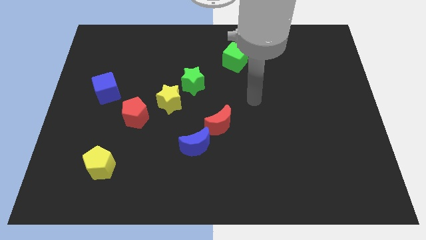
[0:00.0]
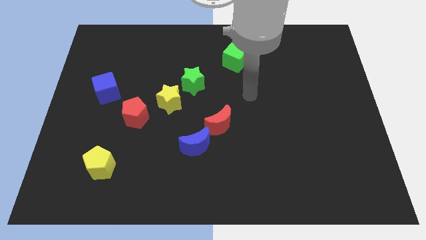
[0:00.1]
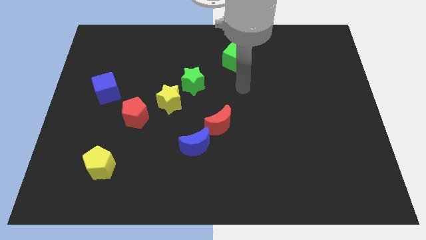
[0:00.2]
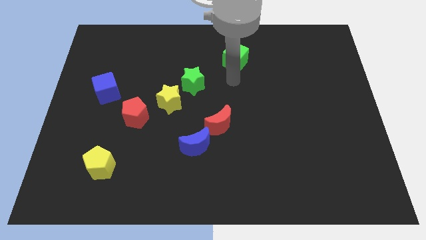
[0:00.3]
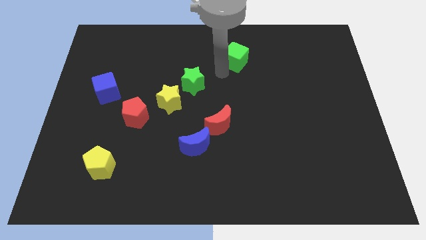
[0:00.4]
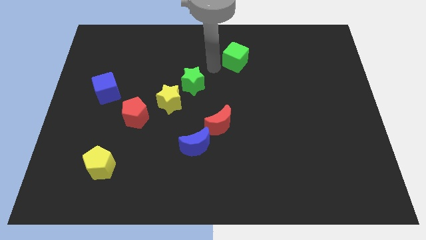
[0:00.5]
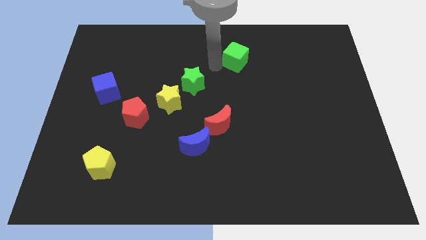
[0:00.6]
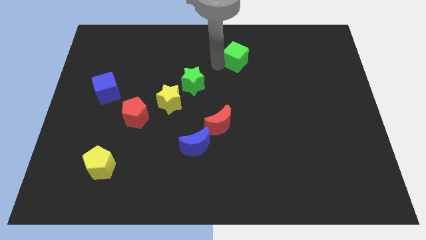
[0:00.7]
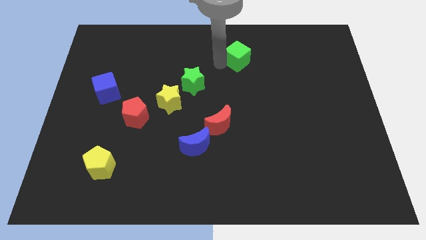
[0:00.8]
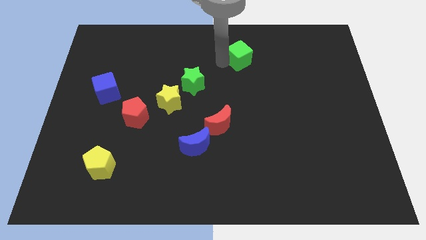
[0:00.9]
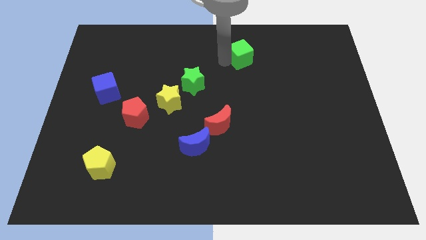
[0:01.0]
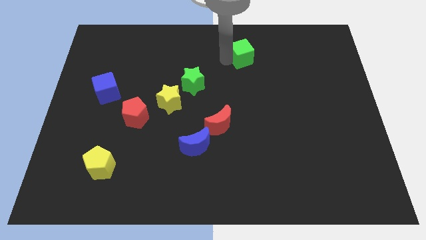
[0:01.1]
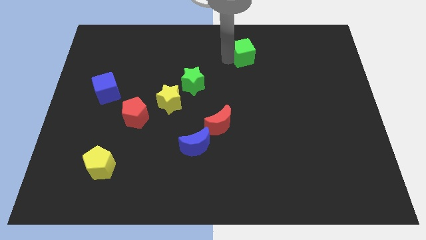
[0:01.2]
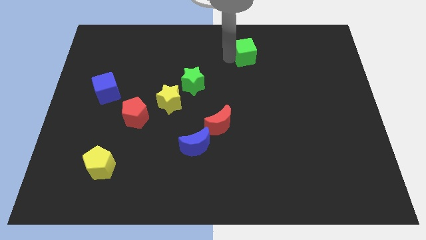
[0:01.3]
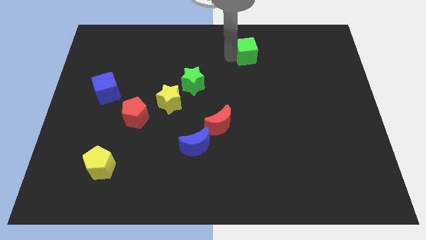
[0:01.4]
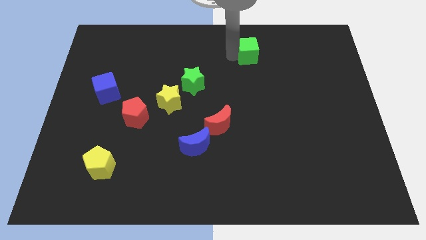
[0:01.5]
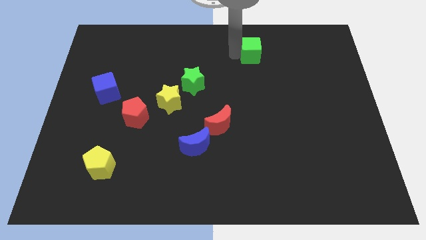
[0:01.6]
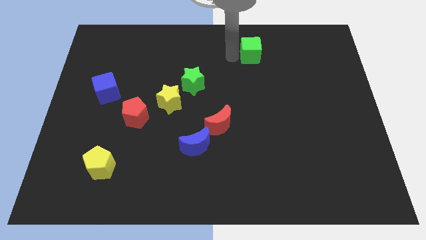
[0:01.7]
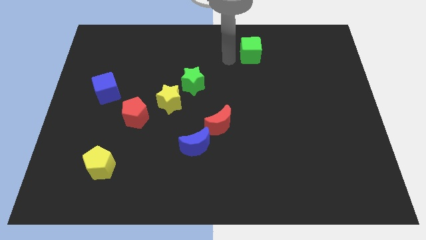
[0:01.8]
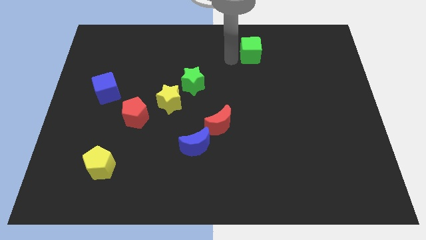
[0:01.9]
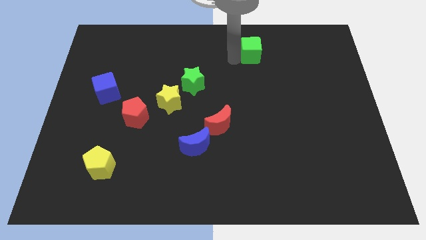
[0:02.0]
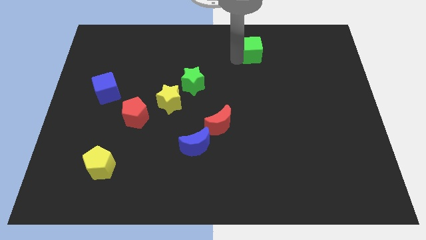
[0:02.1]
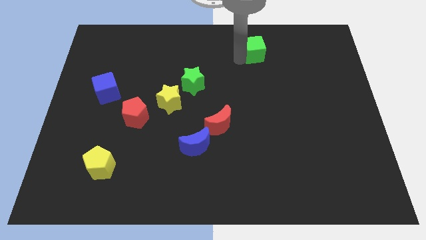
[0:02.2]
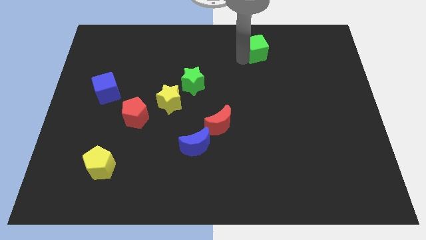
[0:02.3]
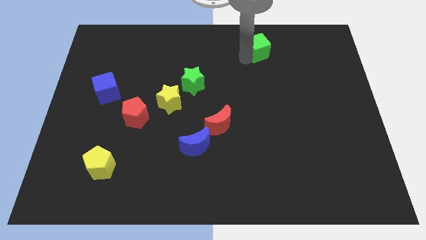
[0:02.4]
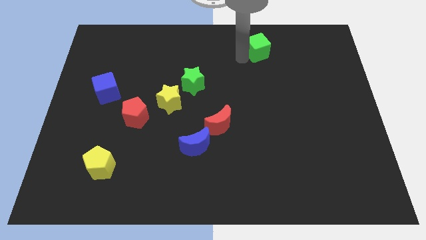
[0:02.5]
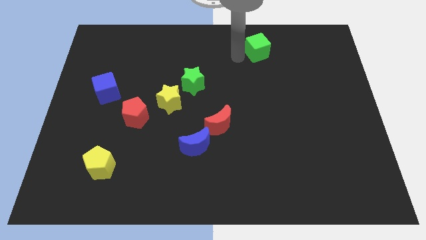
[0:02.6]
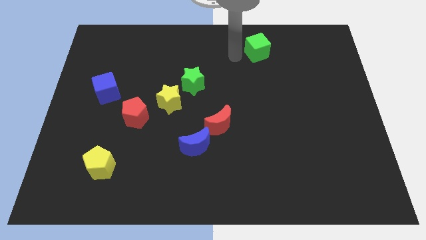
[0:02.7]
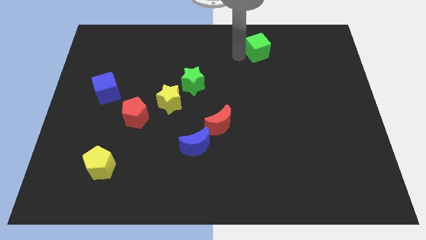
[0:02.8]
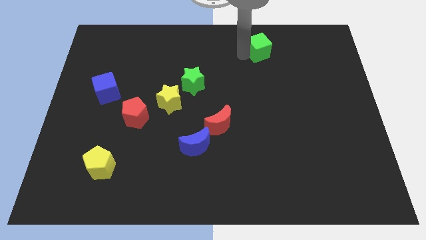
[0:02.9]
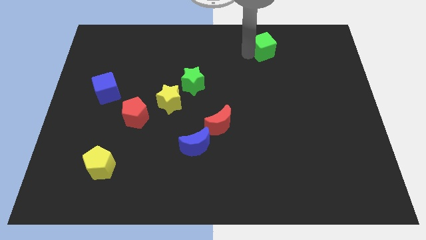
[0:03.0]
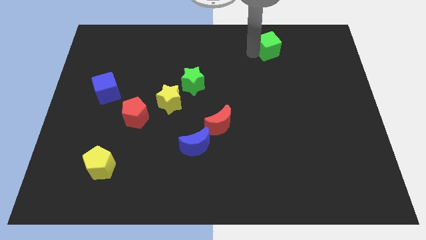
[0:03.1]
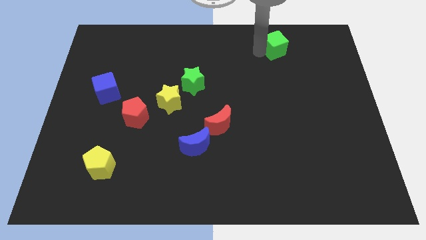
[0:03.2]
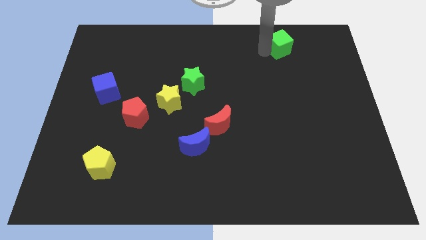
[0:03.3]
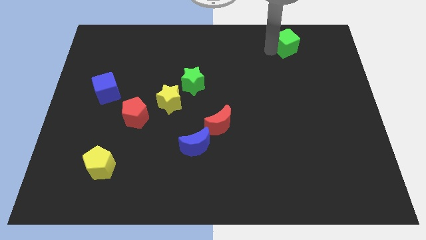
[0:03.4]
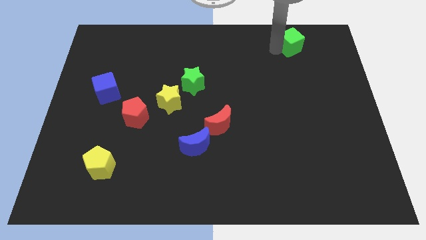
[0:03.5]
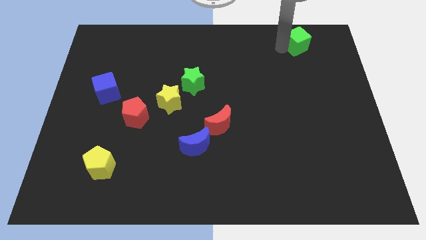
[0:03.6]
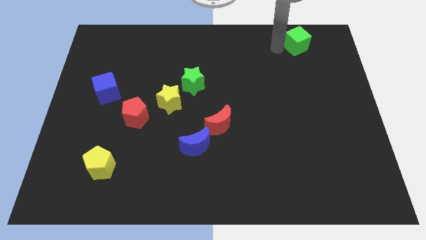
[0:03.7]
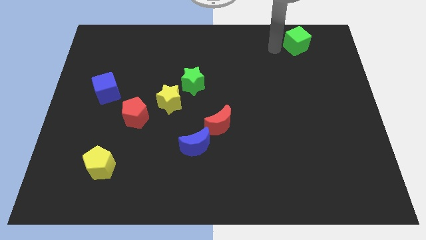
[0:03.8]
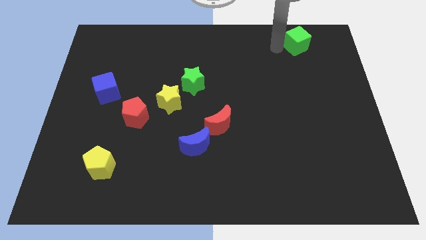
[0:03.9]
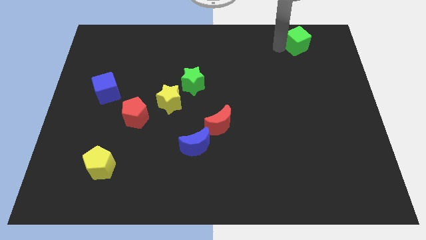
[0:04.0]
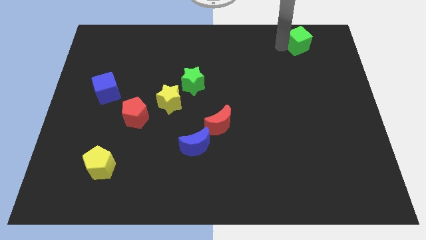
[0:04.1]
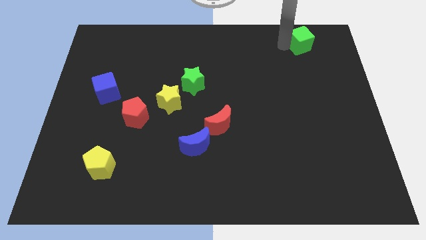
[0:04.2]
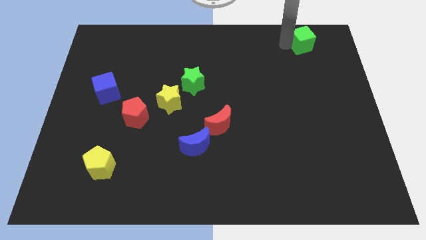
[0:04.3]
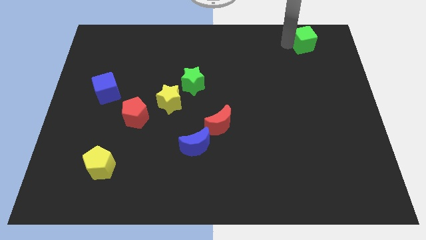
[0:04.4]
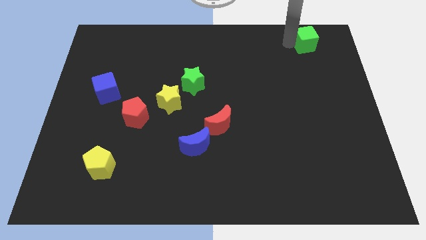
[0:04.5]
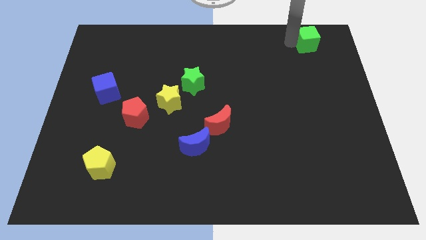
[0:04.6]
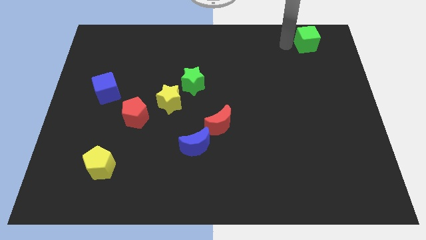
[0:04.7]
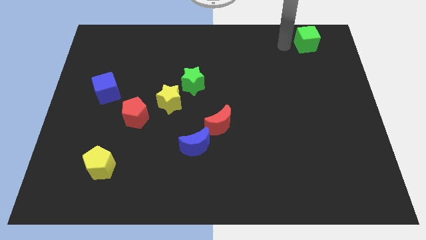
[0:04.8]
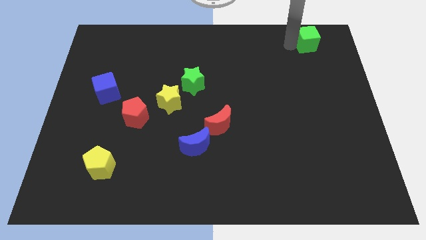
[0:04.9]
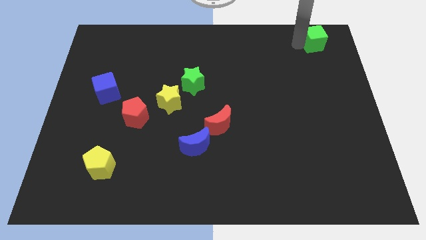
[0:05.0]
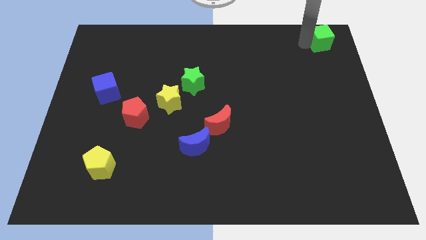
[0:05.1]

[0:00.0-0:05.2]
push the green cube to the top right corner

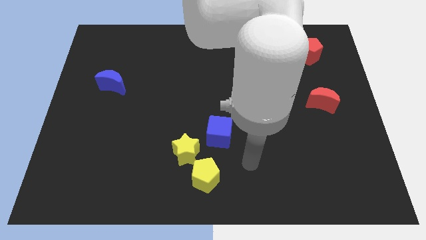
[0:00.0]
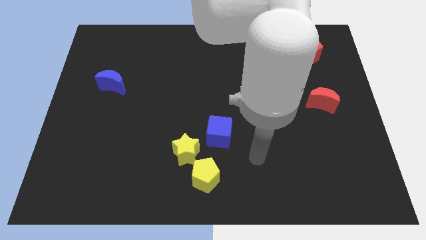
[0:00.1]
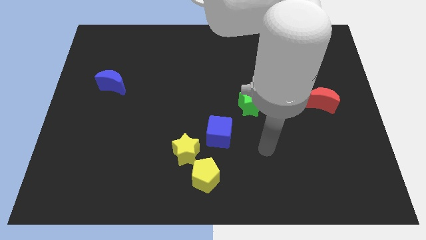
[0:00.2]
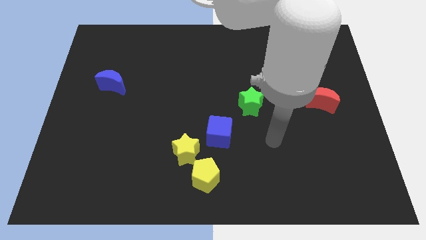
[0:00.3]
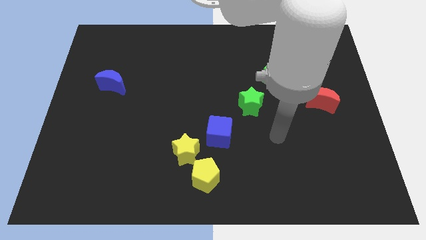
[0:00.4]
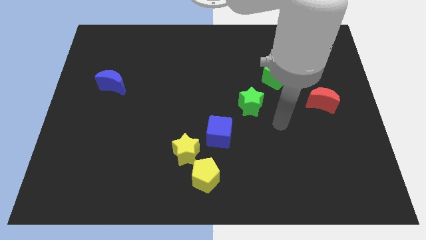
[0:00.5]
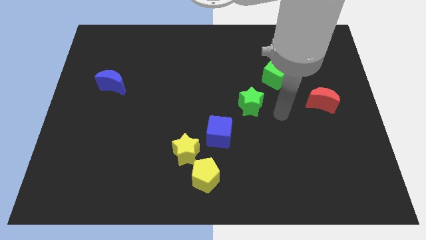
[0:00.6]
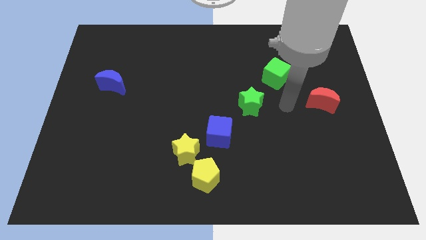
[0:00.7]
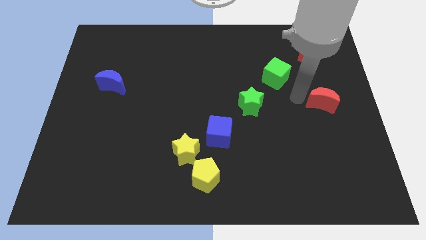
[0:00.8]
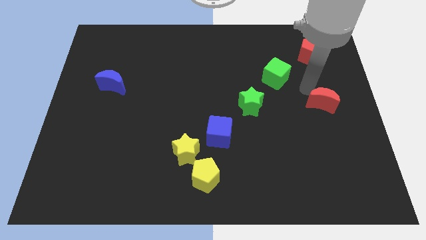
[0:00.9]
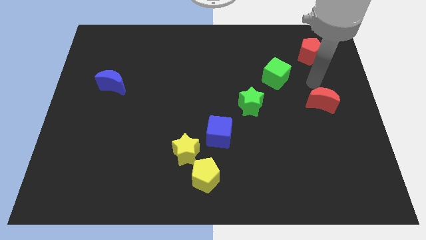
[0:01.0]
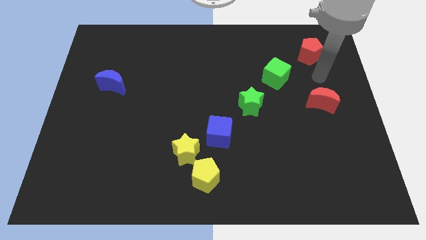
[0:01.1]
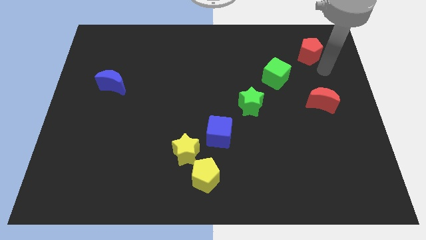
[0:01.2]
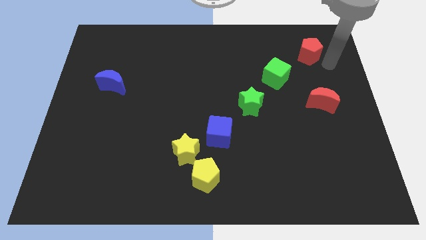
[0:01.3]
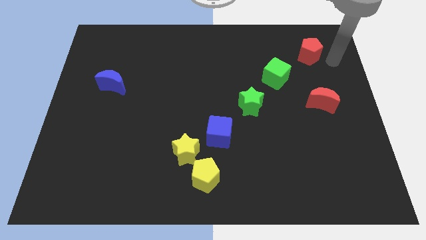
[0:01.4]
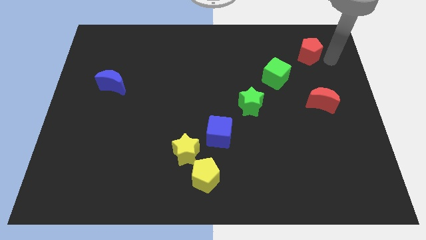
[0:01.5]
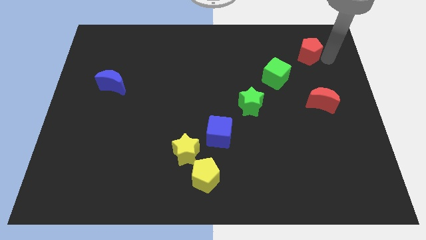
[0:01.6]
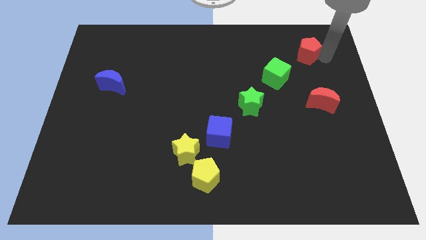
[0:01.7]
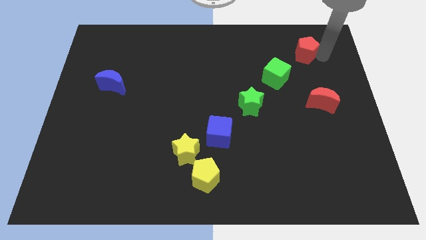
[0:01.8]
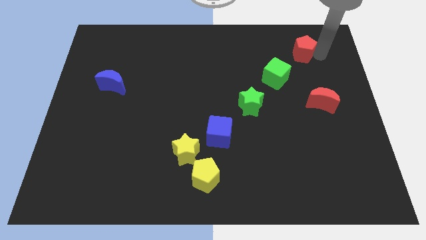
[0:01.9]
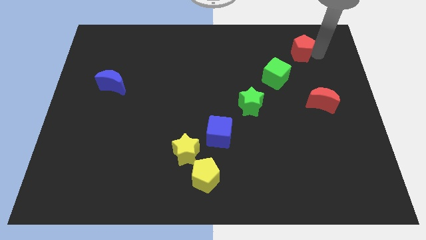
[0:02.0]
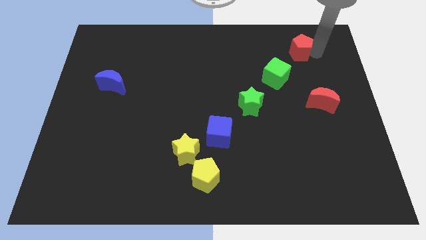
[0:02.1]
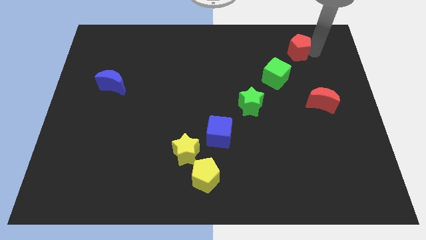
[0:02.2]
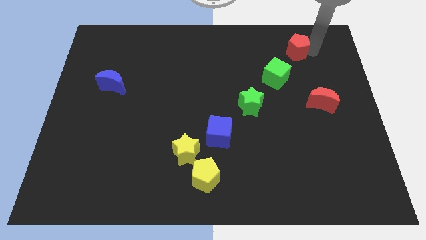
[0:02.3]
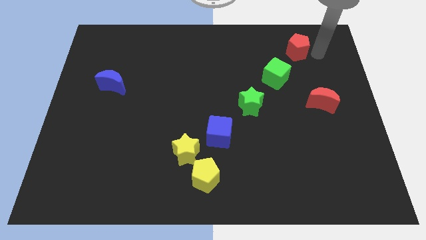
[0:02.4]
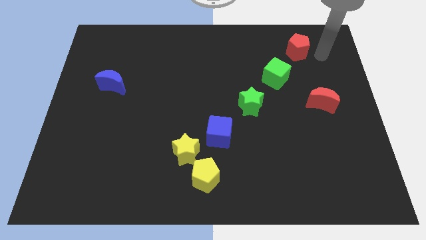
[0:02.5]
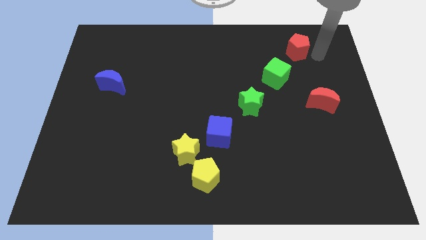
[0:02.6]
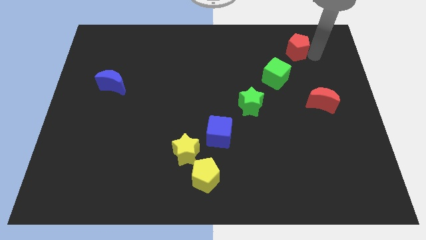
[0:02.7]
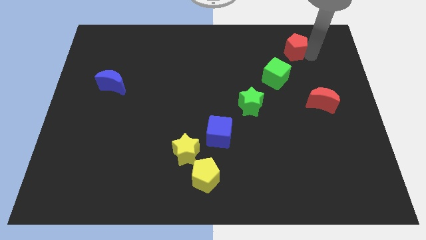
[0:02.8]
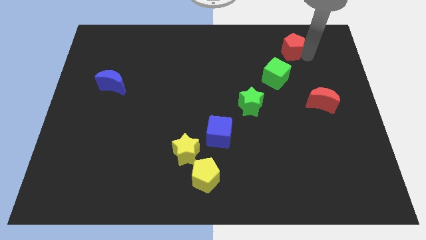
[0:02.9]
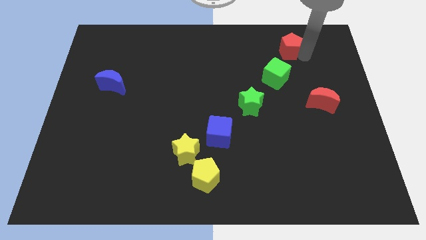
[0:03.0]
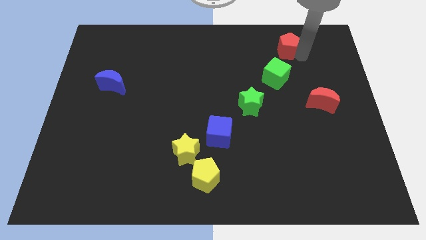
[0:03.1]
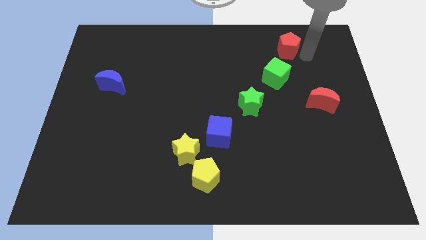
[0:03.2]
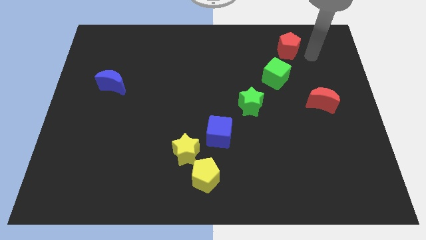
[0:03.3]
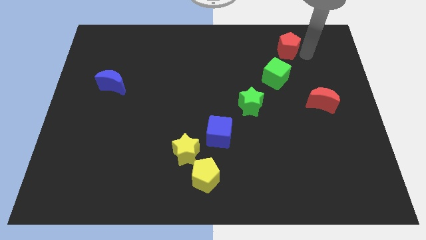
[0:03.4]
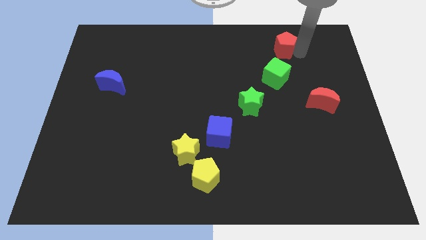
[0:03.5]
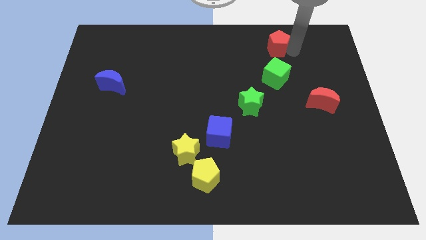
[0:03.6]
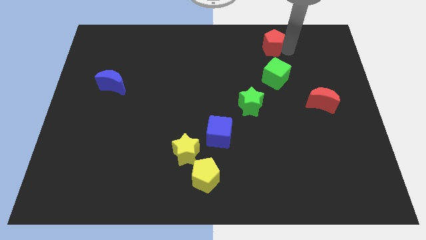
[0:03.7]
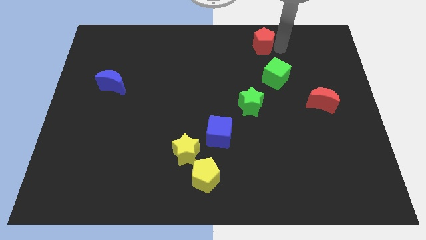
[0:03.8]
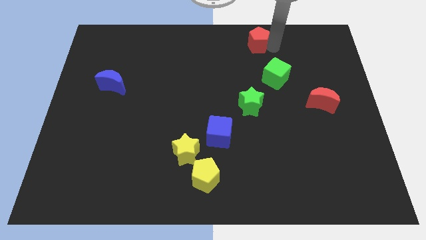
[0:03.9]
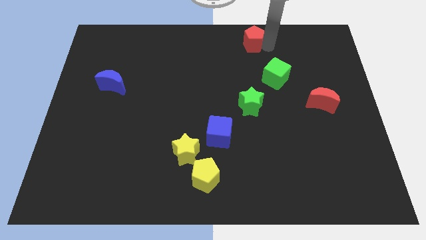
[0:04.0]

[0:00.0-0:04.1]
put the red pentagon to the towards your base
